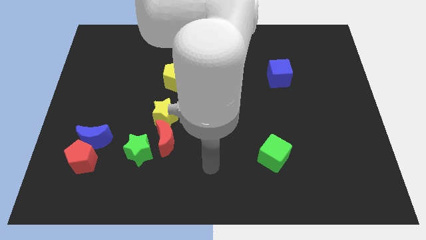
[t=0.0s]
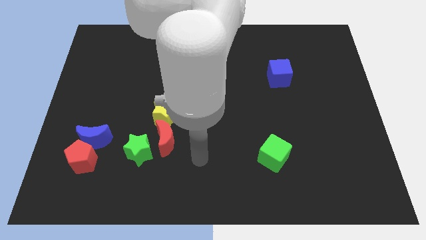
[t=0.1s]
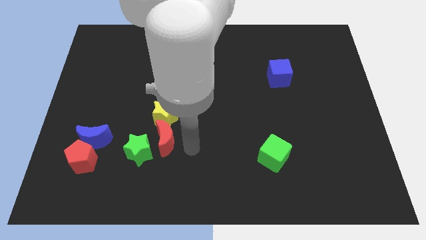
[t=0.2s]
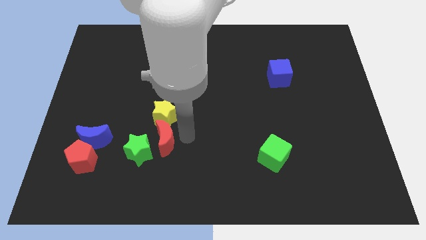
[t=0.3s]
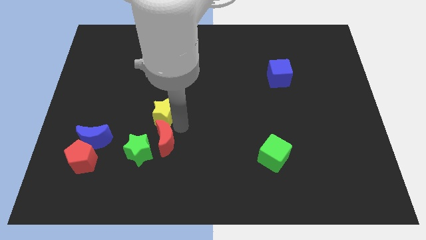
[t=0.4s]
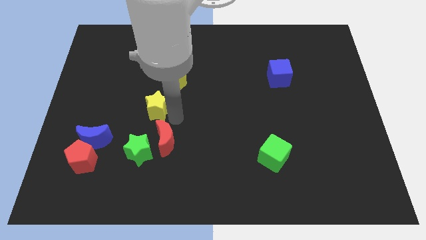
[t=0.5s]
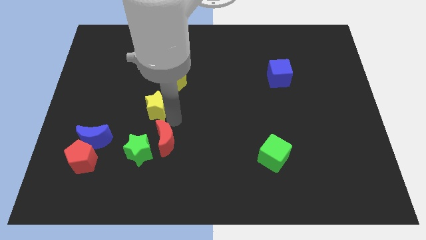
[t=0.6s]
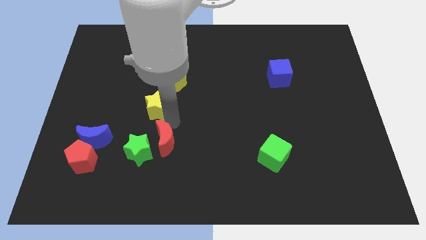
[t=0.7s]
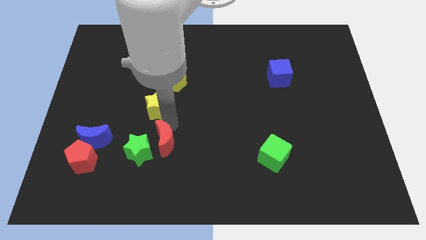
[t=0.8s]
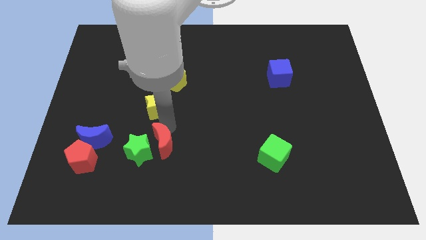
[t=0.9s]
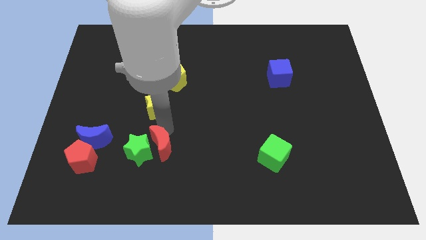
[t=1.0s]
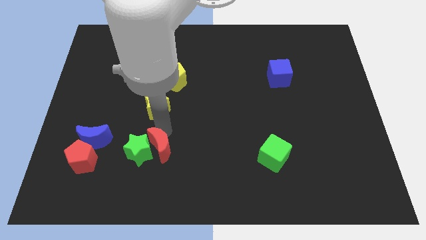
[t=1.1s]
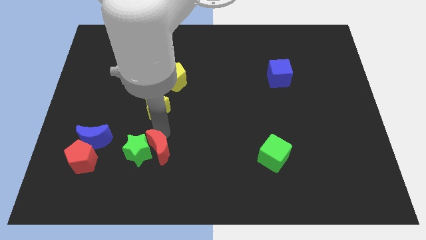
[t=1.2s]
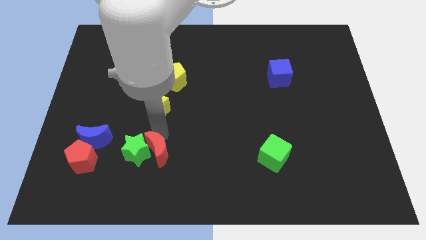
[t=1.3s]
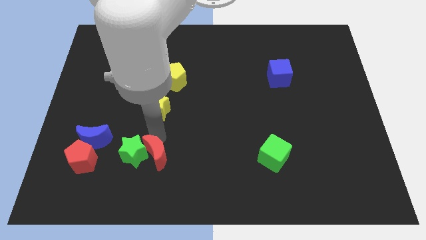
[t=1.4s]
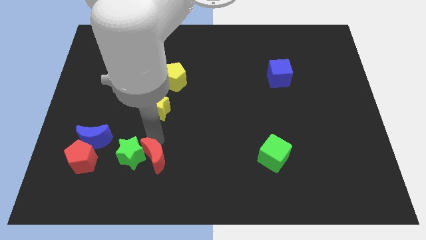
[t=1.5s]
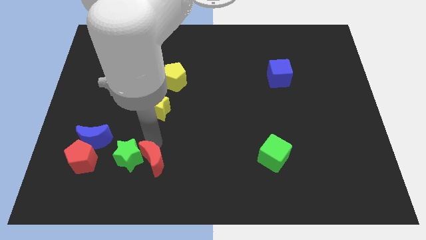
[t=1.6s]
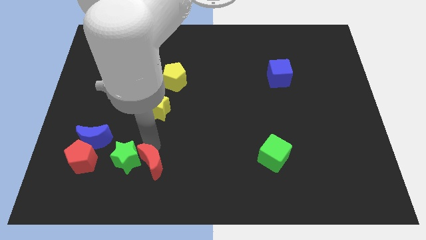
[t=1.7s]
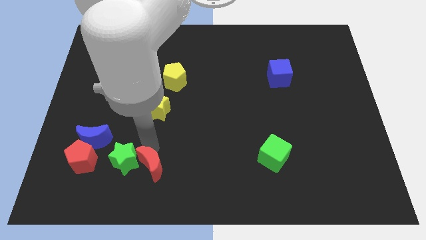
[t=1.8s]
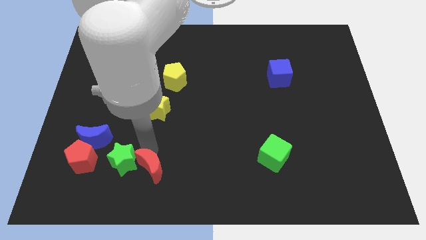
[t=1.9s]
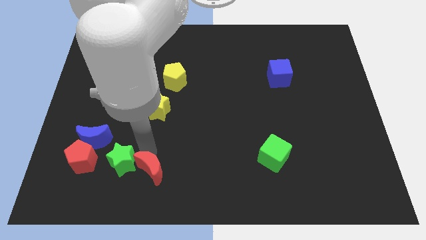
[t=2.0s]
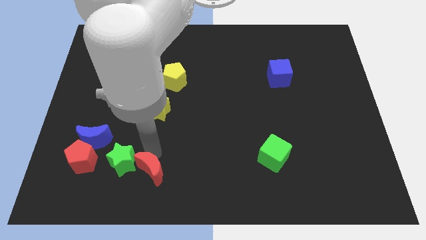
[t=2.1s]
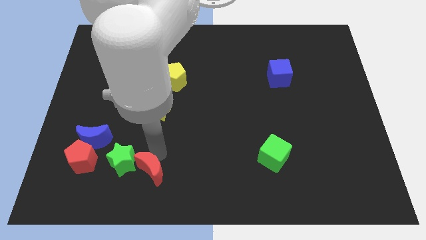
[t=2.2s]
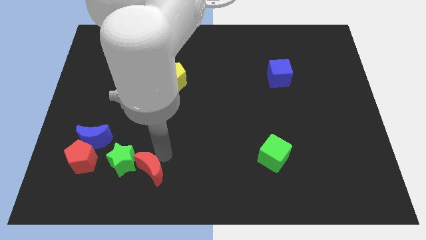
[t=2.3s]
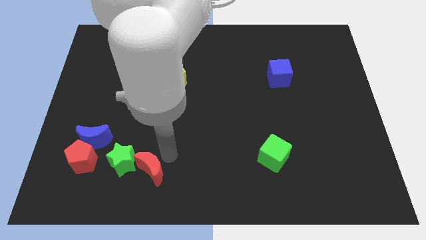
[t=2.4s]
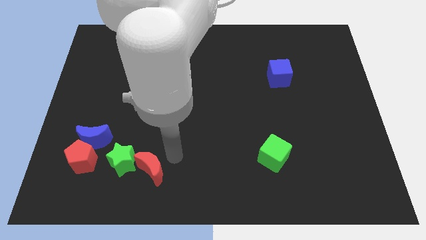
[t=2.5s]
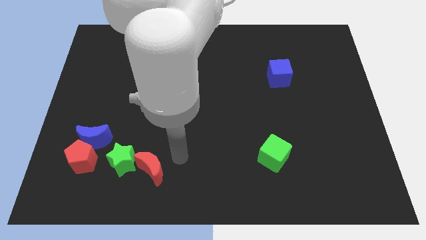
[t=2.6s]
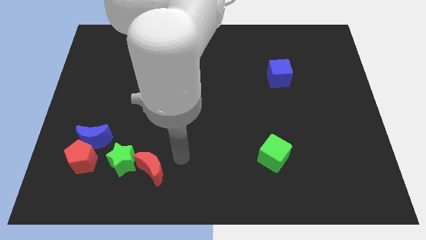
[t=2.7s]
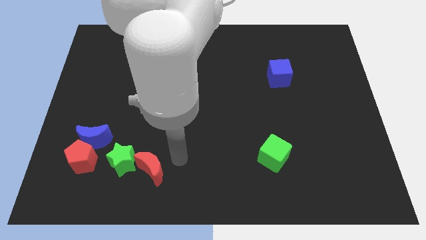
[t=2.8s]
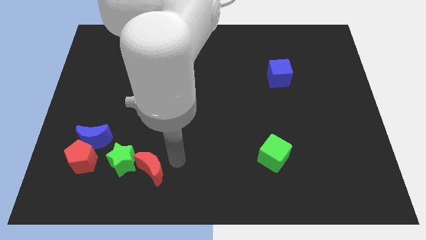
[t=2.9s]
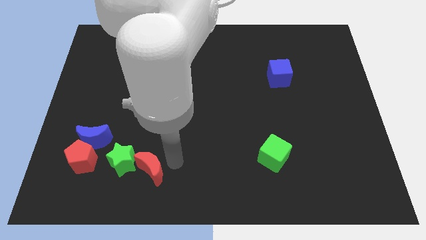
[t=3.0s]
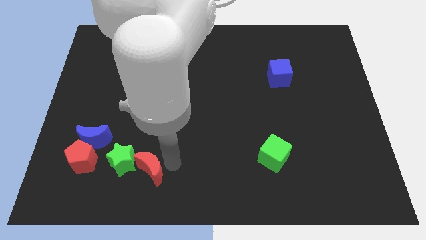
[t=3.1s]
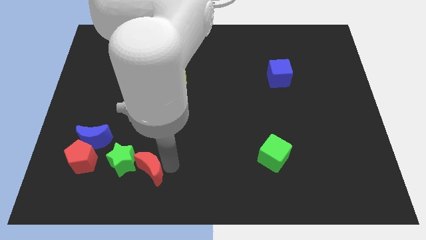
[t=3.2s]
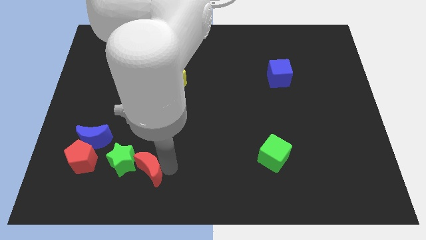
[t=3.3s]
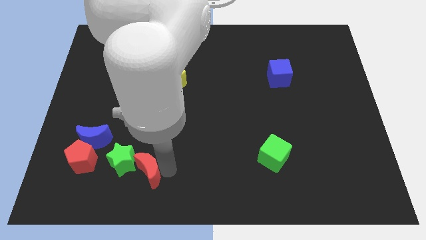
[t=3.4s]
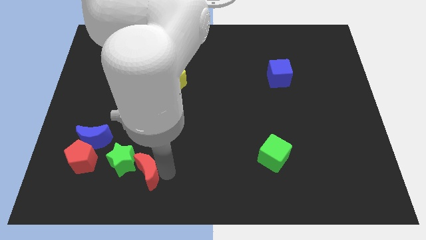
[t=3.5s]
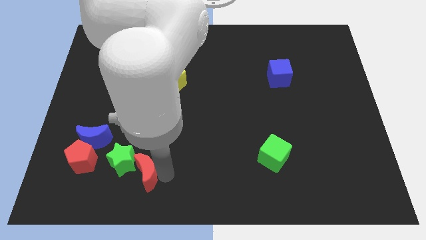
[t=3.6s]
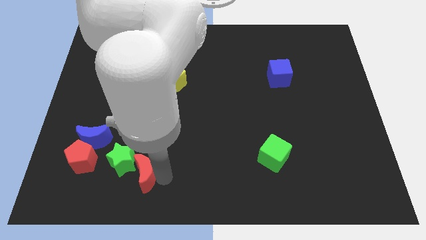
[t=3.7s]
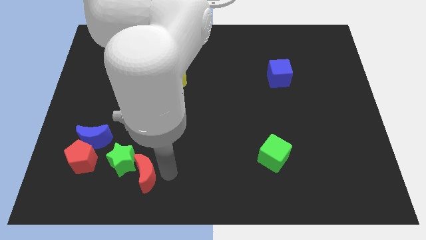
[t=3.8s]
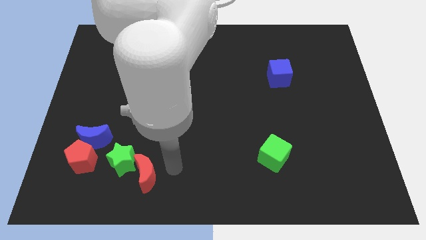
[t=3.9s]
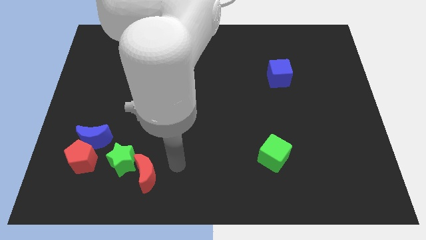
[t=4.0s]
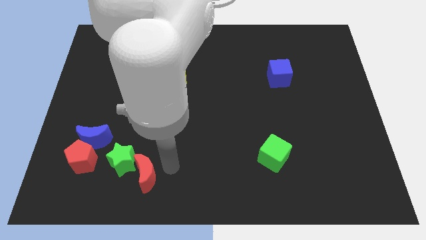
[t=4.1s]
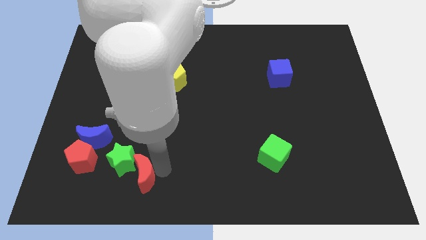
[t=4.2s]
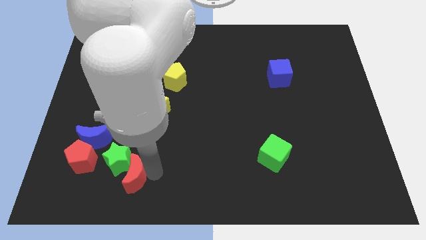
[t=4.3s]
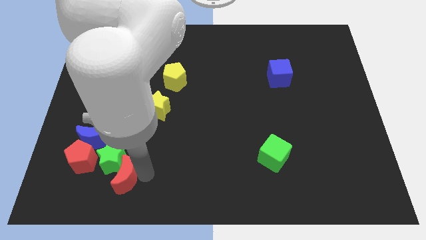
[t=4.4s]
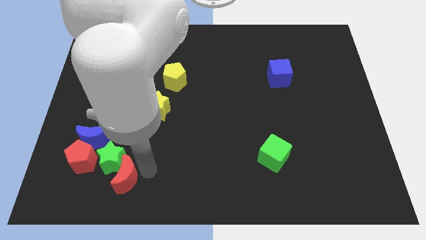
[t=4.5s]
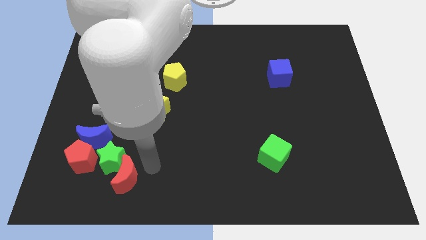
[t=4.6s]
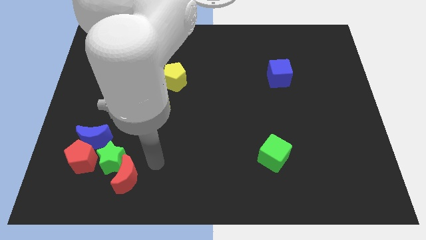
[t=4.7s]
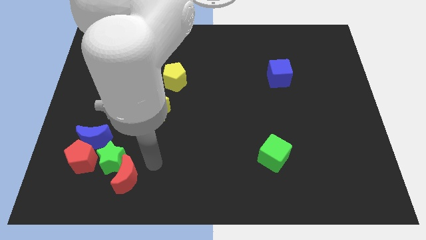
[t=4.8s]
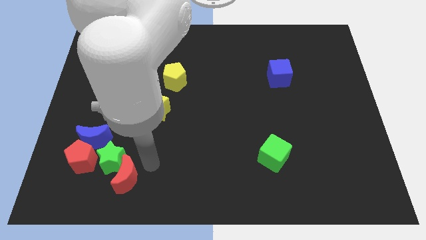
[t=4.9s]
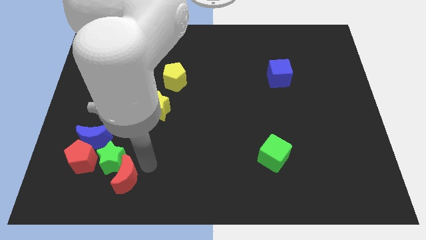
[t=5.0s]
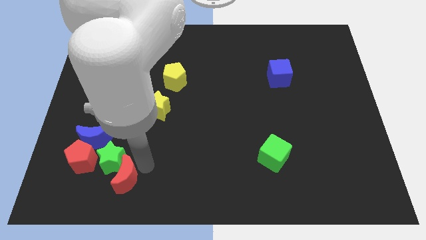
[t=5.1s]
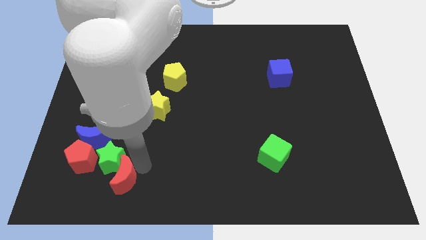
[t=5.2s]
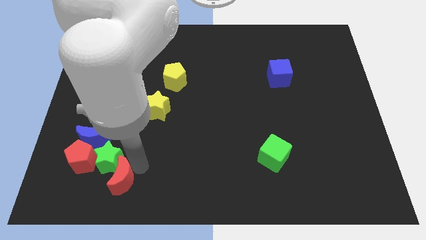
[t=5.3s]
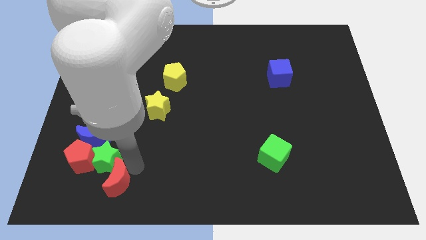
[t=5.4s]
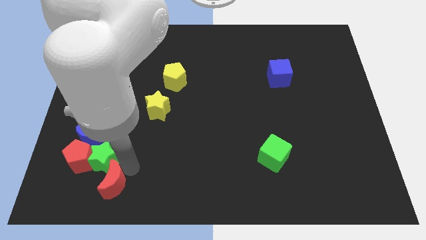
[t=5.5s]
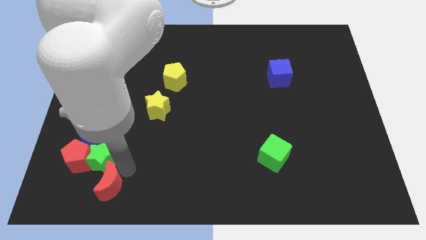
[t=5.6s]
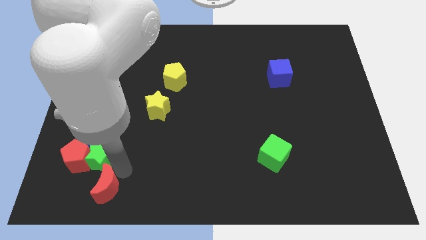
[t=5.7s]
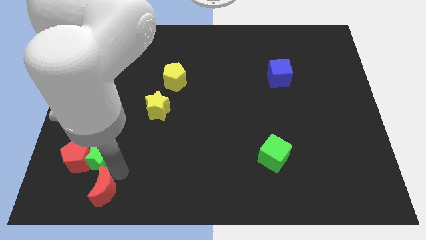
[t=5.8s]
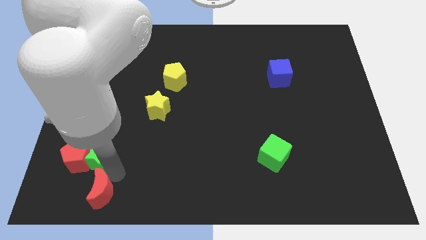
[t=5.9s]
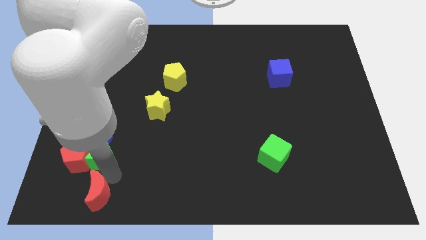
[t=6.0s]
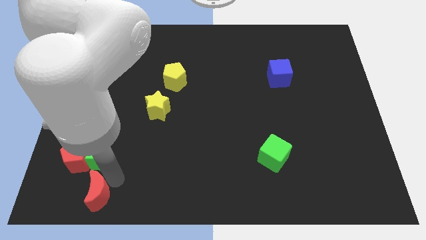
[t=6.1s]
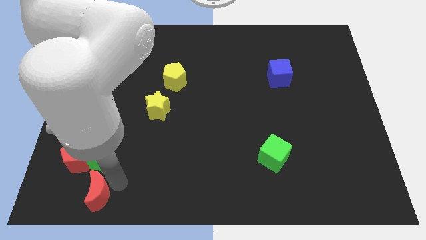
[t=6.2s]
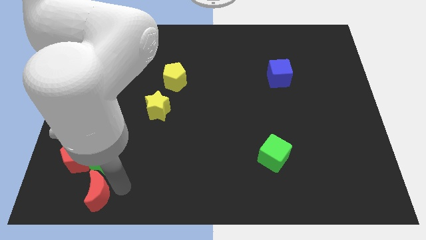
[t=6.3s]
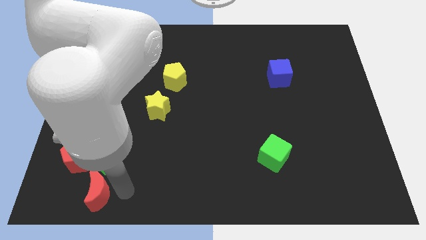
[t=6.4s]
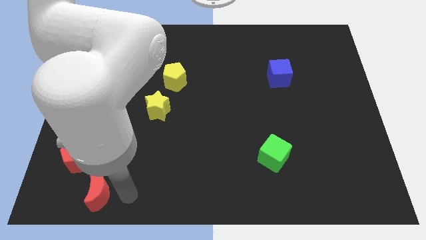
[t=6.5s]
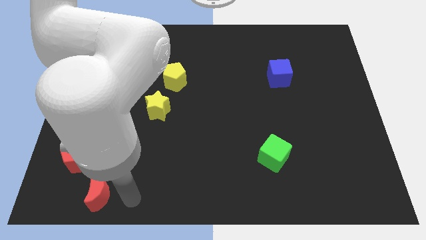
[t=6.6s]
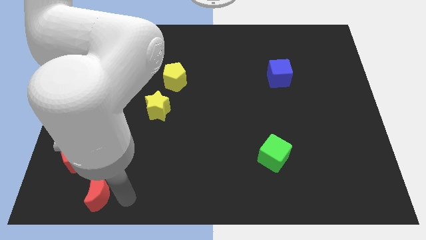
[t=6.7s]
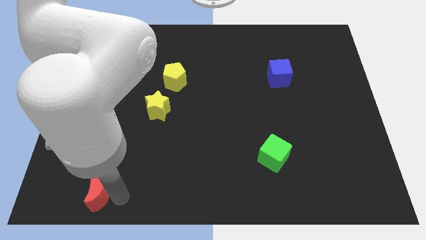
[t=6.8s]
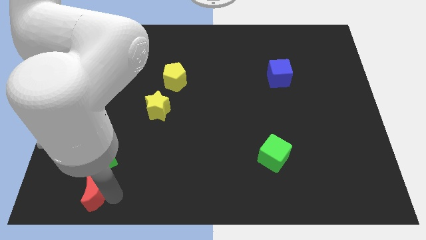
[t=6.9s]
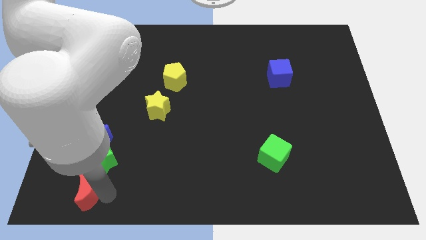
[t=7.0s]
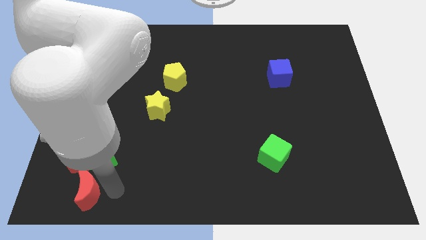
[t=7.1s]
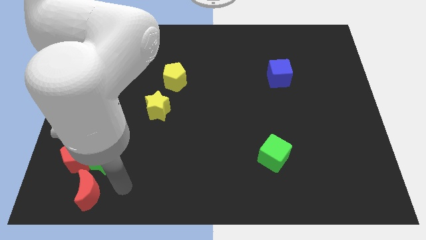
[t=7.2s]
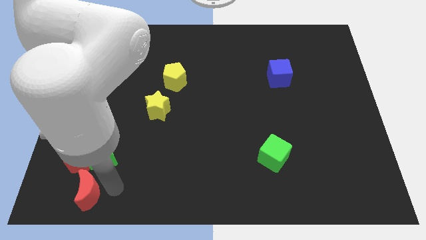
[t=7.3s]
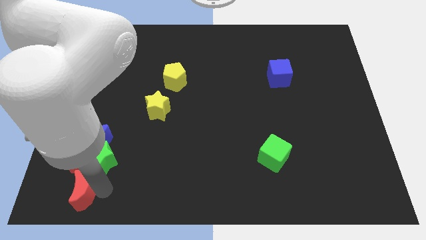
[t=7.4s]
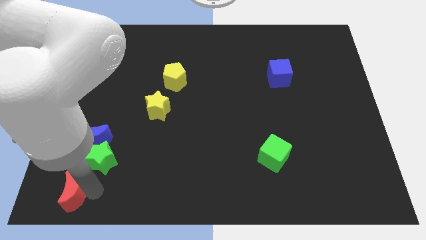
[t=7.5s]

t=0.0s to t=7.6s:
slide the red moon to the lower left corner
